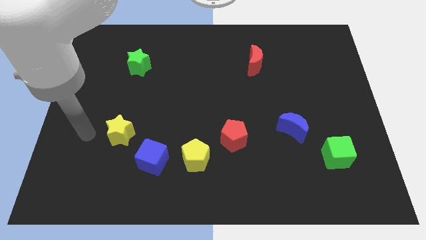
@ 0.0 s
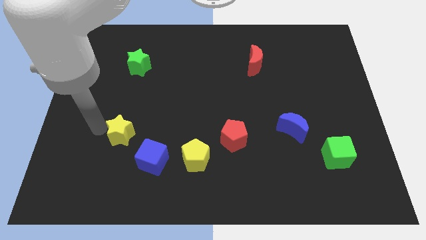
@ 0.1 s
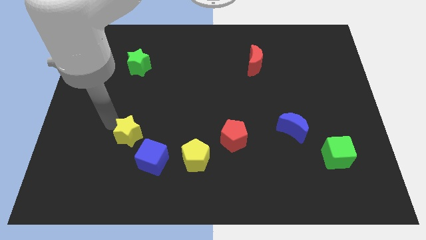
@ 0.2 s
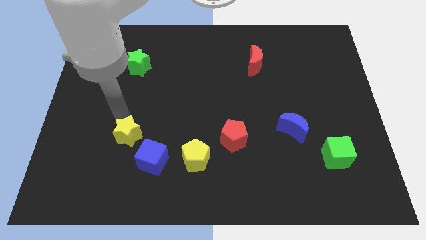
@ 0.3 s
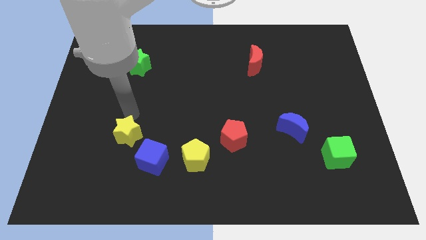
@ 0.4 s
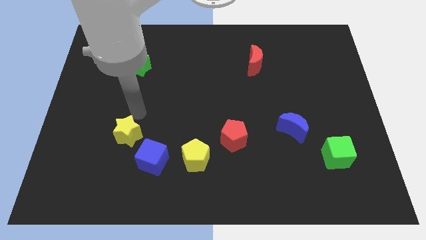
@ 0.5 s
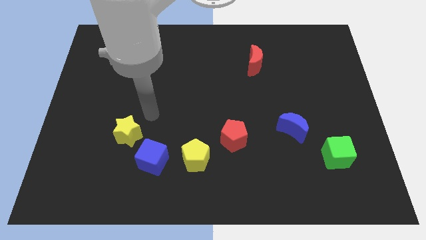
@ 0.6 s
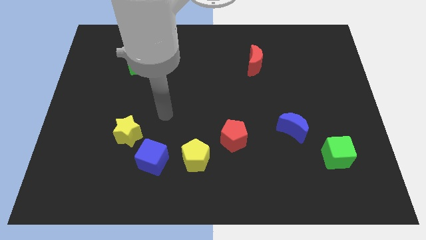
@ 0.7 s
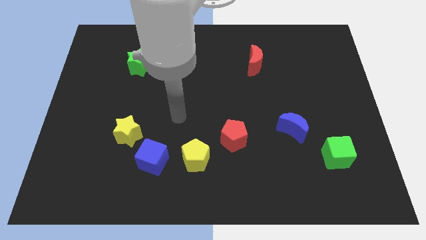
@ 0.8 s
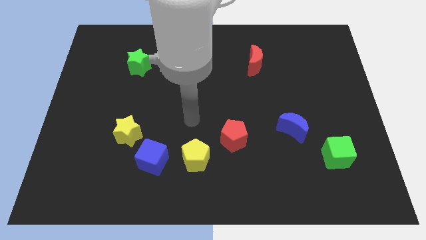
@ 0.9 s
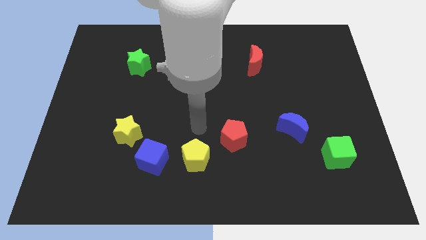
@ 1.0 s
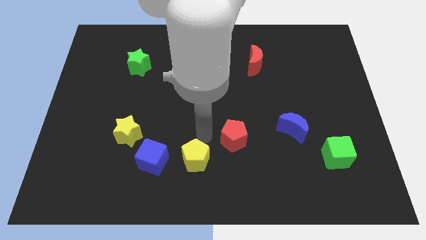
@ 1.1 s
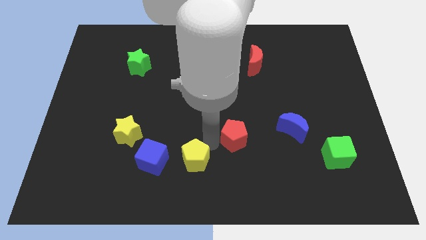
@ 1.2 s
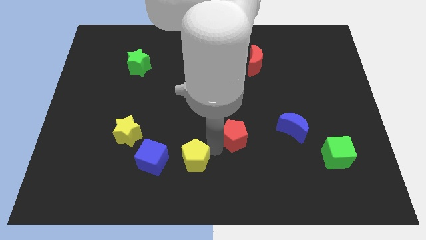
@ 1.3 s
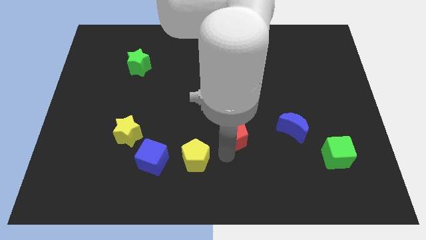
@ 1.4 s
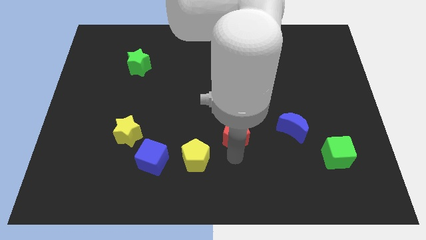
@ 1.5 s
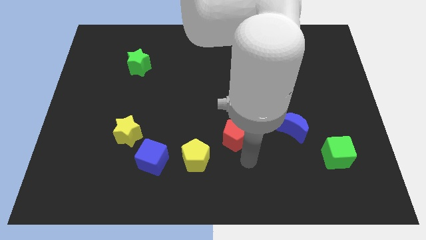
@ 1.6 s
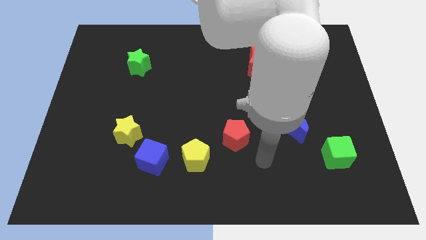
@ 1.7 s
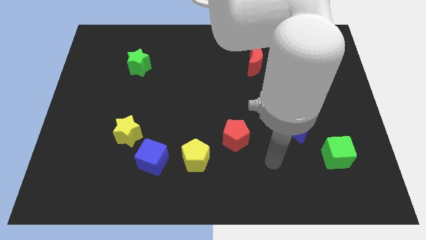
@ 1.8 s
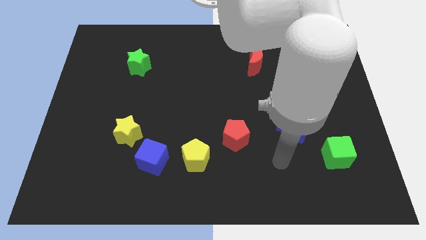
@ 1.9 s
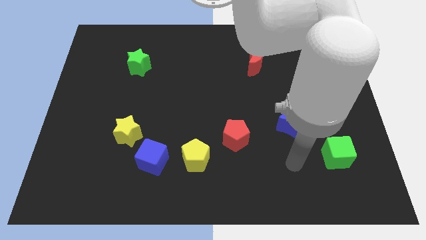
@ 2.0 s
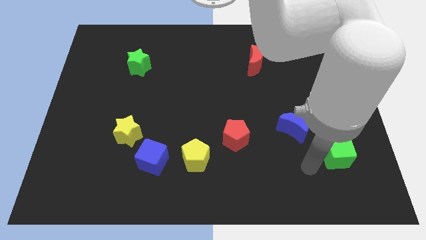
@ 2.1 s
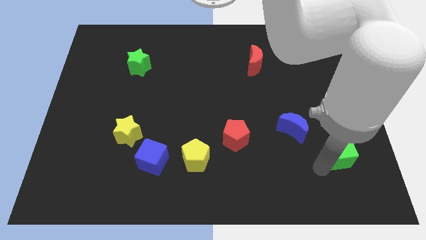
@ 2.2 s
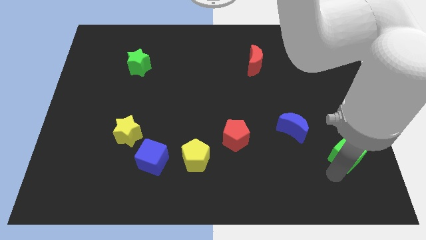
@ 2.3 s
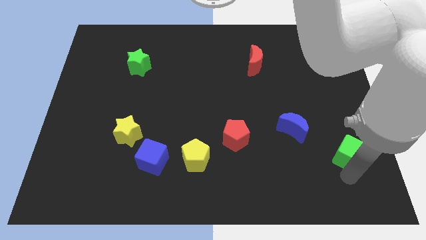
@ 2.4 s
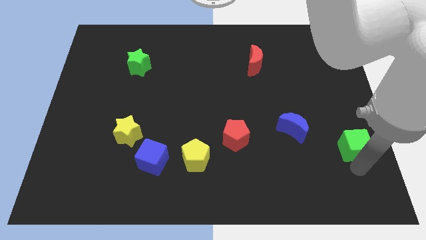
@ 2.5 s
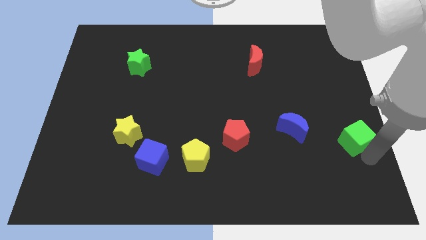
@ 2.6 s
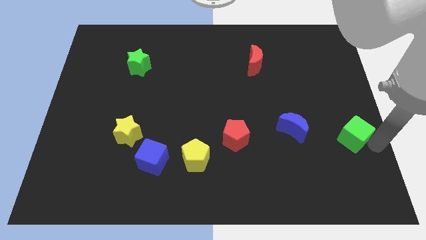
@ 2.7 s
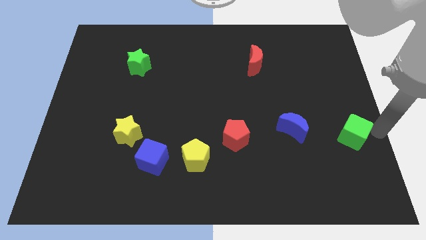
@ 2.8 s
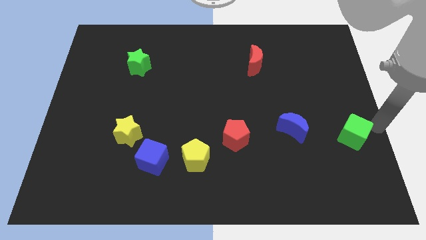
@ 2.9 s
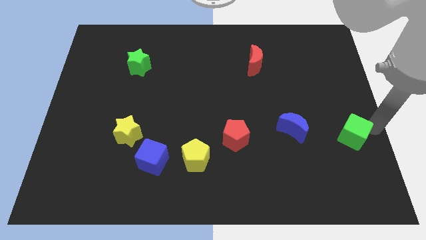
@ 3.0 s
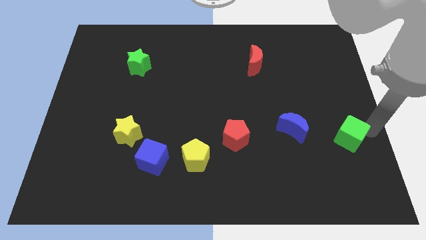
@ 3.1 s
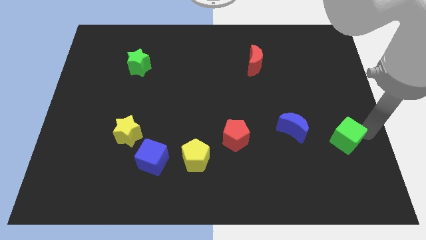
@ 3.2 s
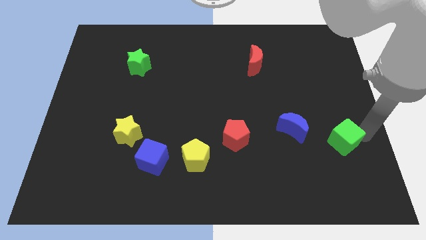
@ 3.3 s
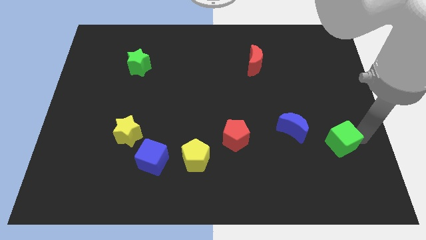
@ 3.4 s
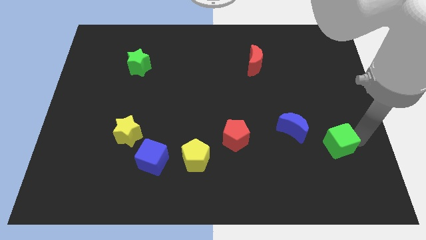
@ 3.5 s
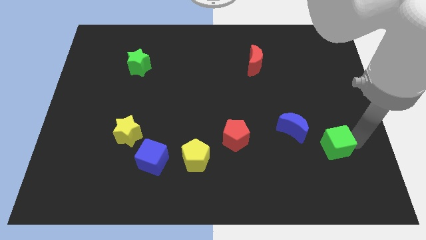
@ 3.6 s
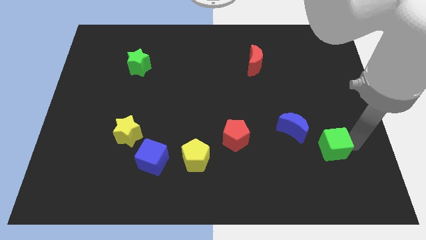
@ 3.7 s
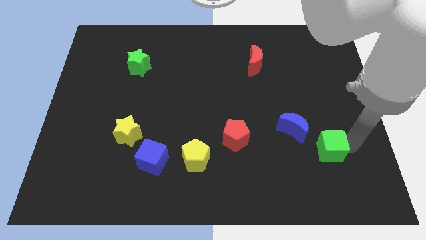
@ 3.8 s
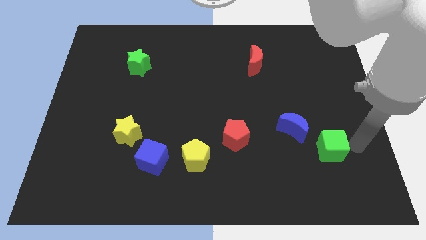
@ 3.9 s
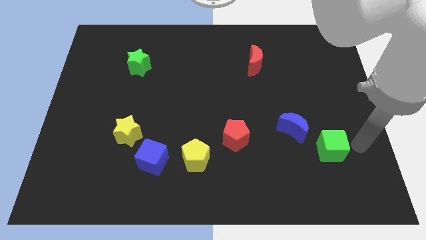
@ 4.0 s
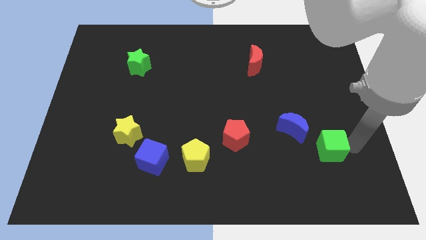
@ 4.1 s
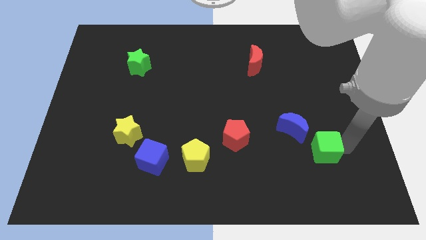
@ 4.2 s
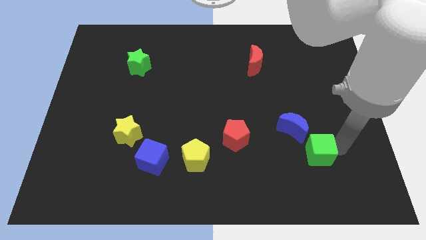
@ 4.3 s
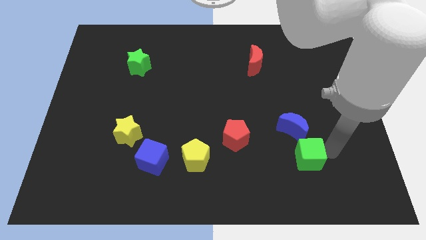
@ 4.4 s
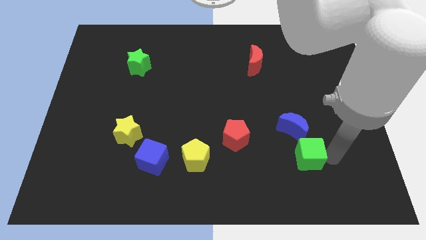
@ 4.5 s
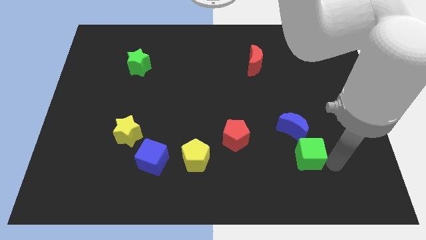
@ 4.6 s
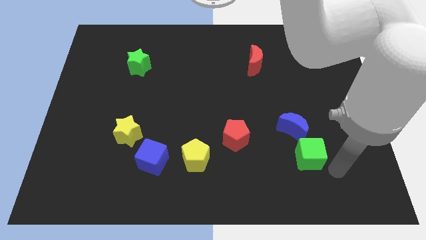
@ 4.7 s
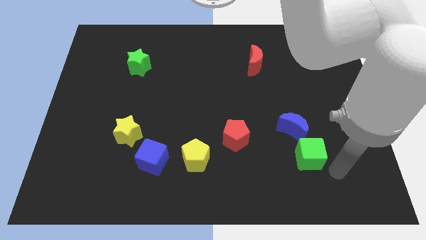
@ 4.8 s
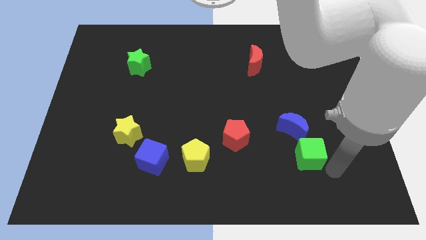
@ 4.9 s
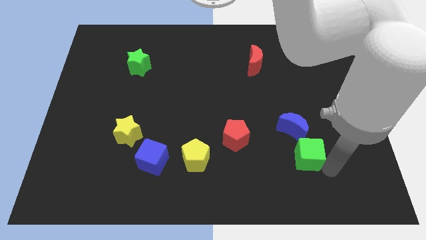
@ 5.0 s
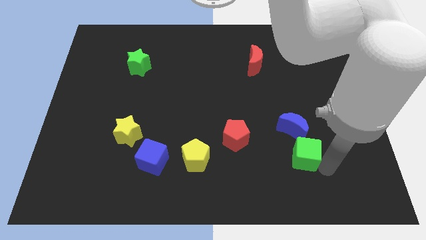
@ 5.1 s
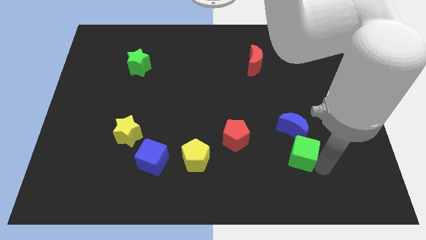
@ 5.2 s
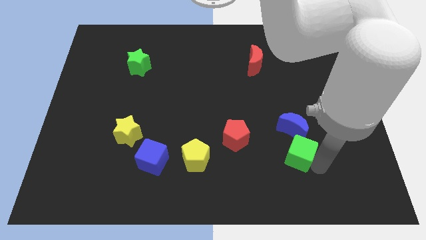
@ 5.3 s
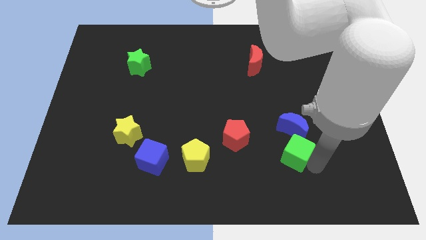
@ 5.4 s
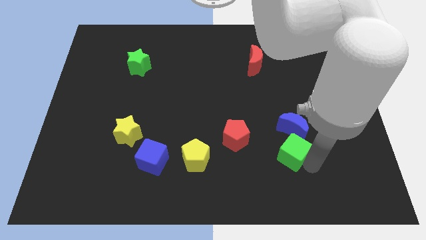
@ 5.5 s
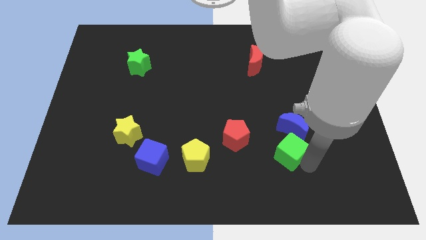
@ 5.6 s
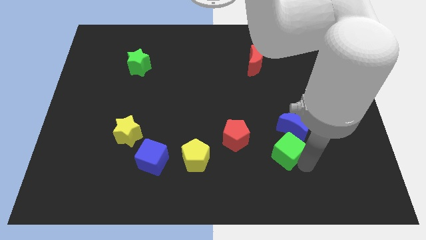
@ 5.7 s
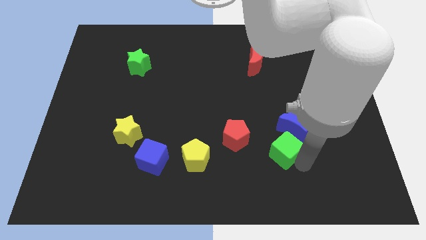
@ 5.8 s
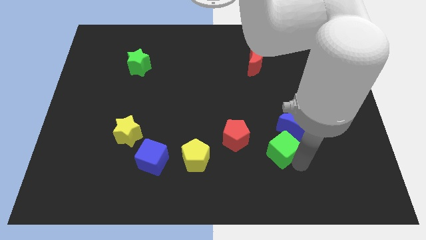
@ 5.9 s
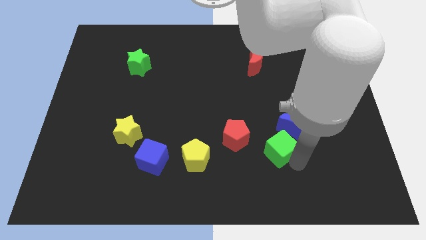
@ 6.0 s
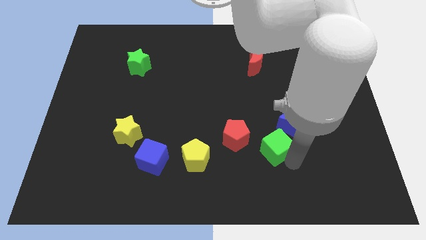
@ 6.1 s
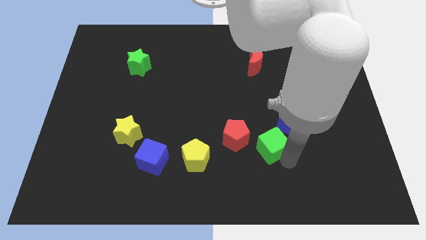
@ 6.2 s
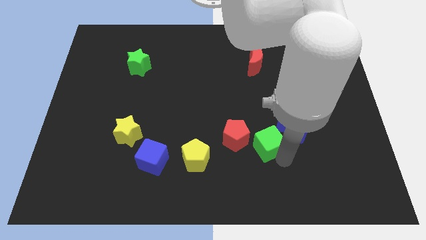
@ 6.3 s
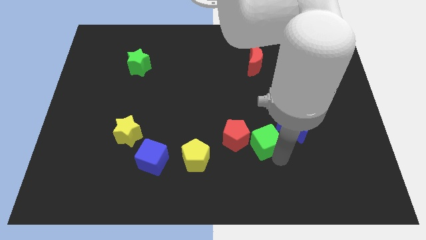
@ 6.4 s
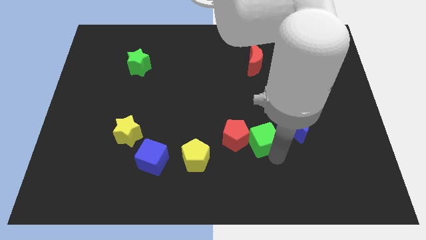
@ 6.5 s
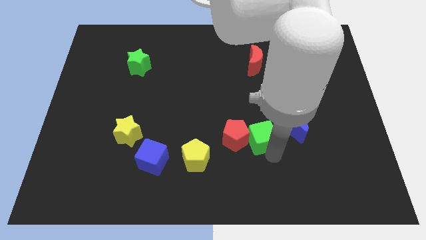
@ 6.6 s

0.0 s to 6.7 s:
put the green cube to the top right of the red pentagon

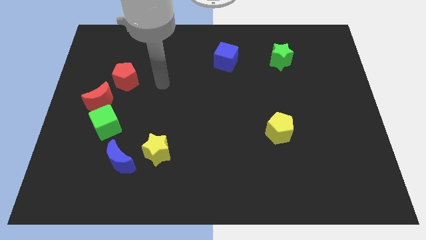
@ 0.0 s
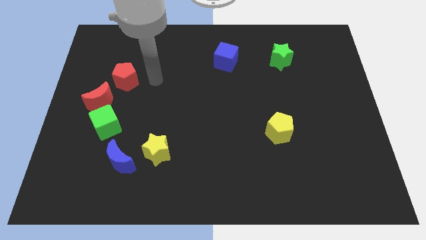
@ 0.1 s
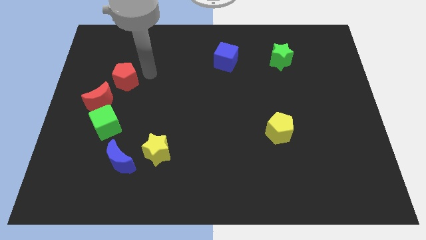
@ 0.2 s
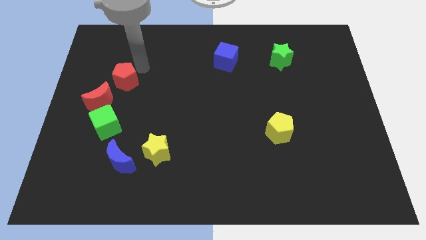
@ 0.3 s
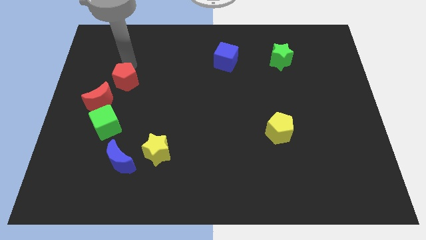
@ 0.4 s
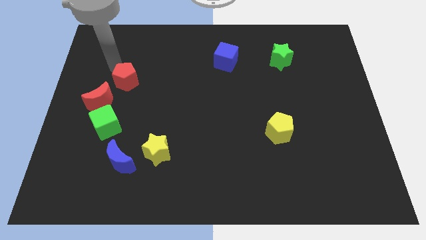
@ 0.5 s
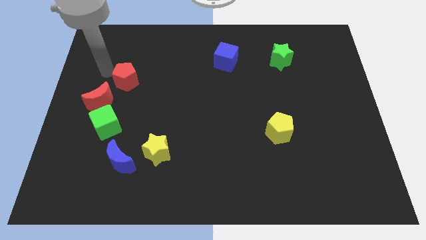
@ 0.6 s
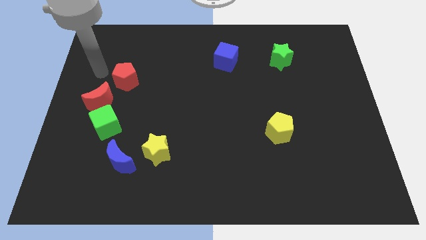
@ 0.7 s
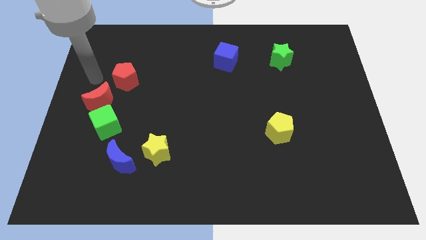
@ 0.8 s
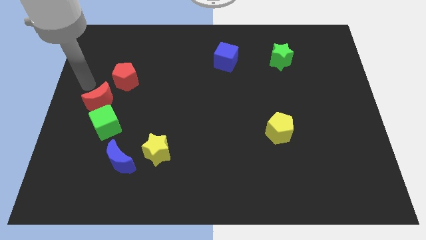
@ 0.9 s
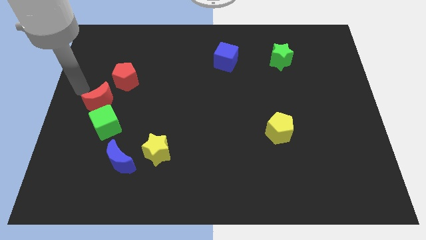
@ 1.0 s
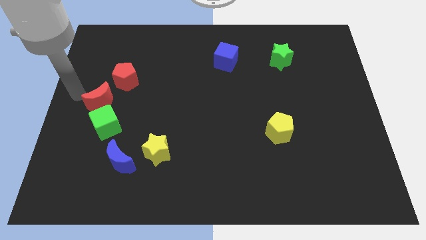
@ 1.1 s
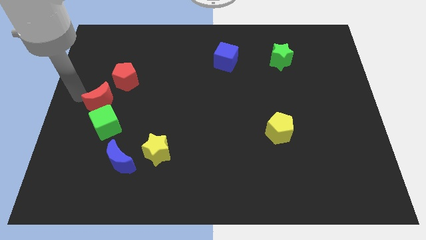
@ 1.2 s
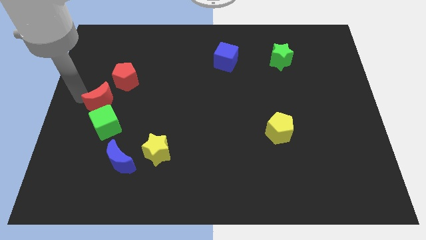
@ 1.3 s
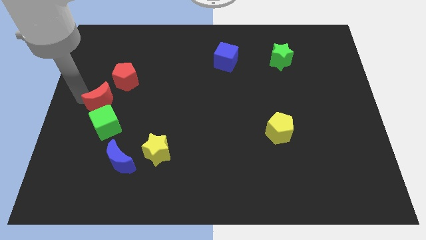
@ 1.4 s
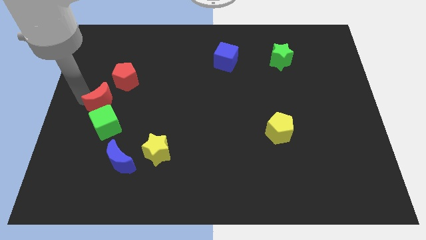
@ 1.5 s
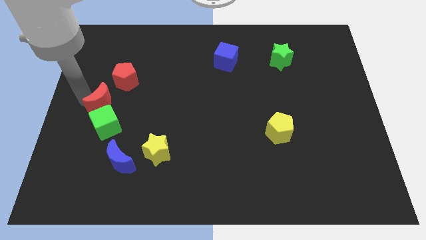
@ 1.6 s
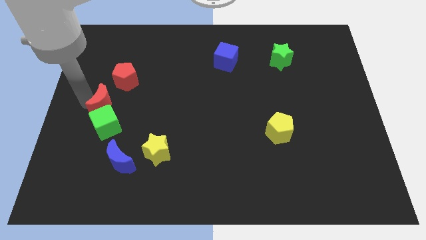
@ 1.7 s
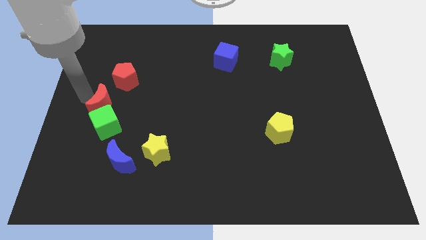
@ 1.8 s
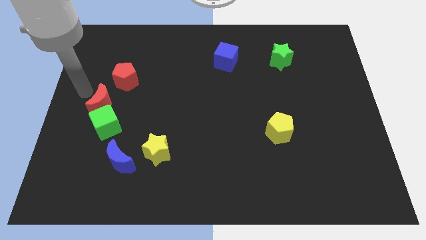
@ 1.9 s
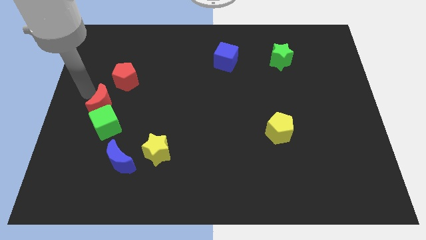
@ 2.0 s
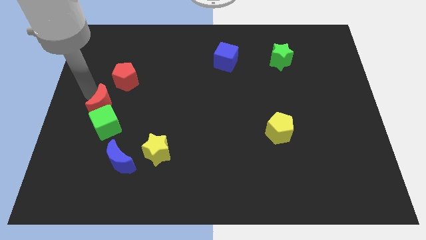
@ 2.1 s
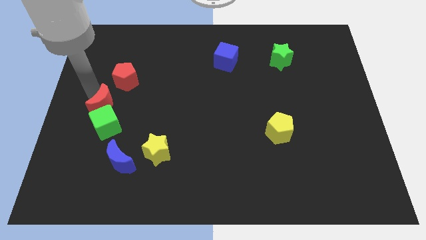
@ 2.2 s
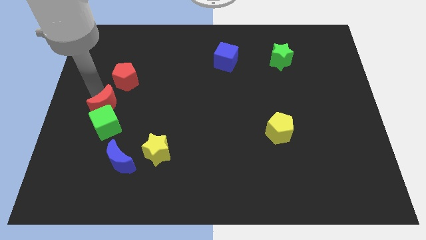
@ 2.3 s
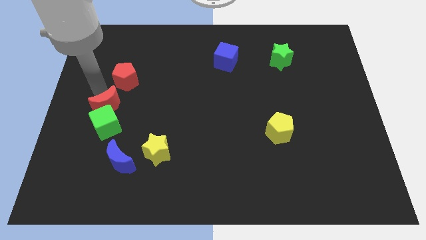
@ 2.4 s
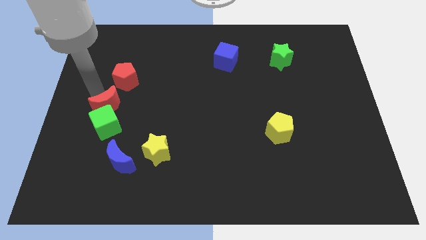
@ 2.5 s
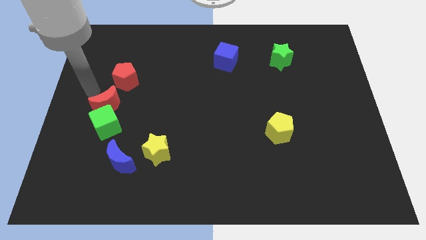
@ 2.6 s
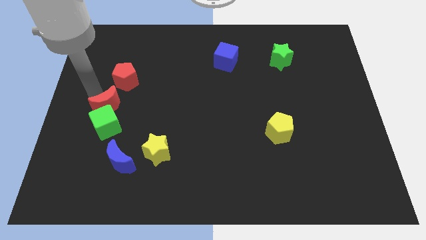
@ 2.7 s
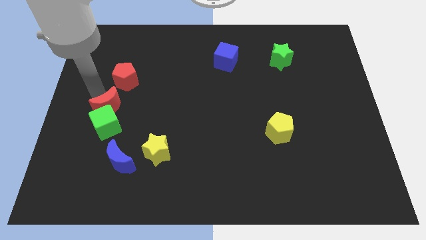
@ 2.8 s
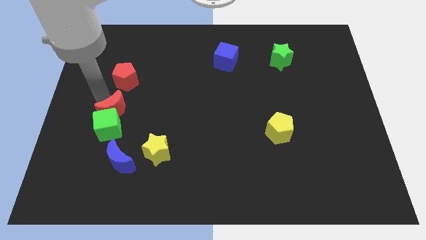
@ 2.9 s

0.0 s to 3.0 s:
push the red moon to the top side of the blue moon
